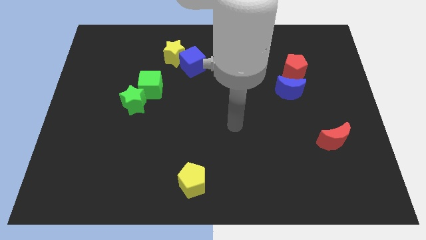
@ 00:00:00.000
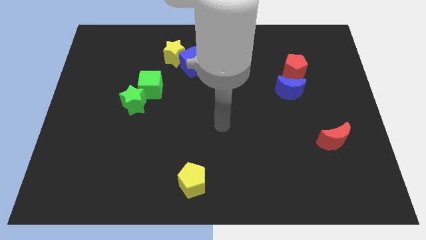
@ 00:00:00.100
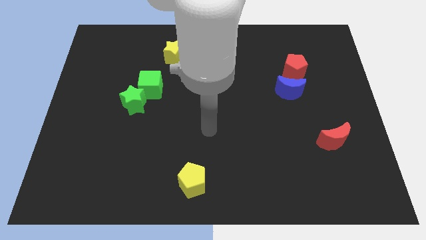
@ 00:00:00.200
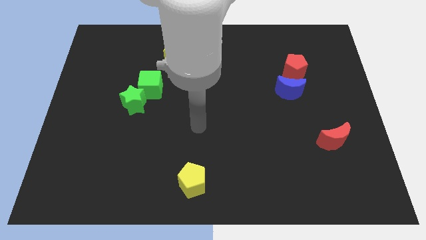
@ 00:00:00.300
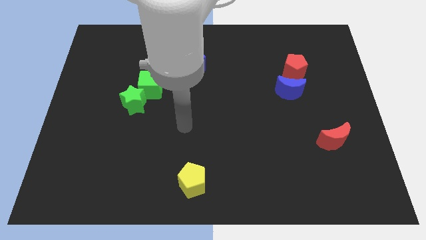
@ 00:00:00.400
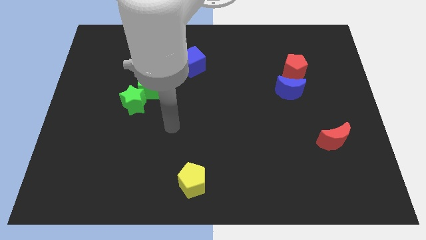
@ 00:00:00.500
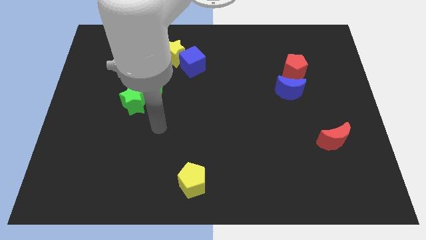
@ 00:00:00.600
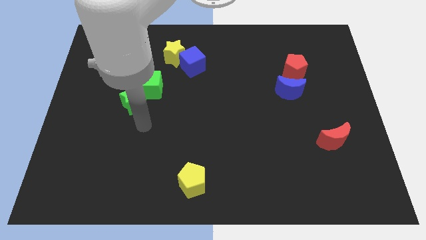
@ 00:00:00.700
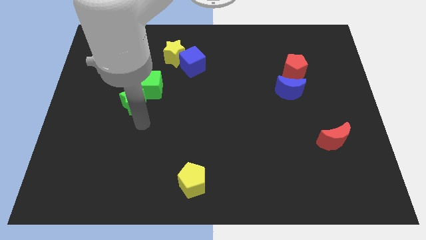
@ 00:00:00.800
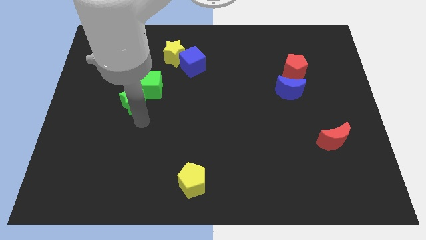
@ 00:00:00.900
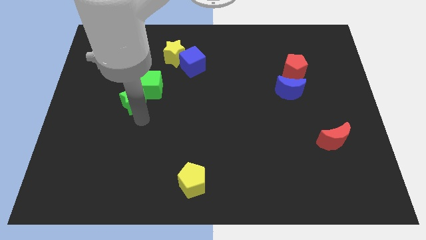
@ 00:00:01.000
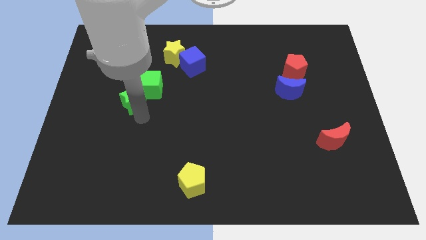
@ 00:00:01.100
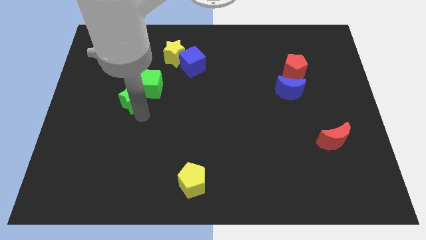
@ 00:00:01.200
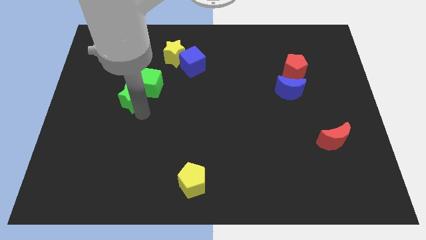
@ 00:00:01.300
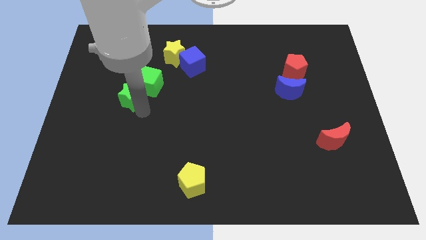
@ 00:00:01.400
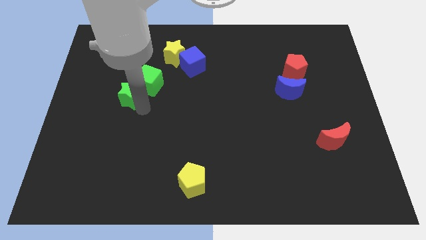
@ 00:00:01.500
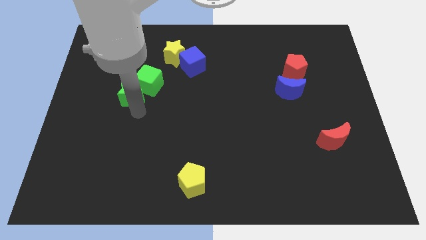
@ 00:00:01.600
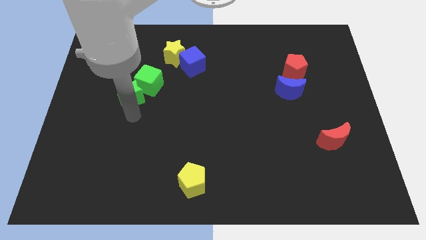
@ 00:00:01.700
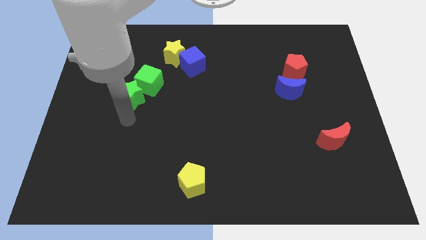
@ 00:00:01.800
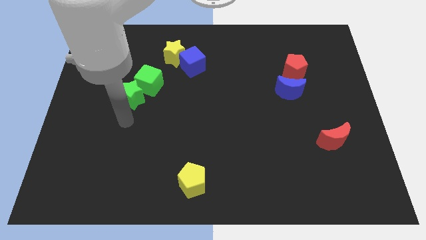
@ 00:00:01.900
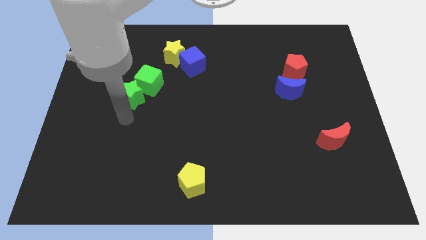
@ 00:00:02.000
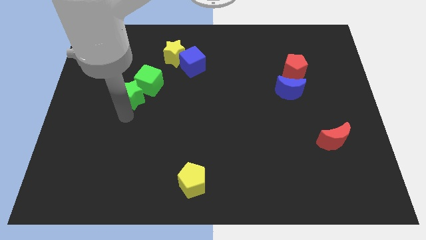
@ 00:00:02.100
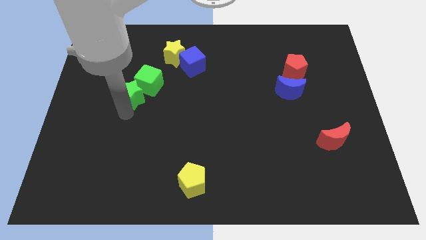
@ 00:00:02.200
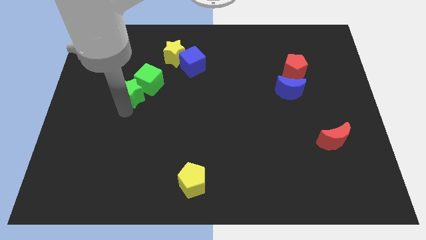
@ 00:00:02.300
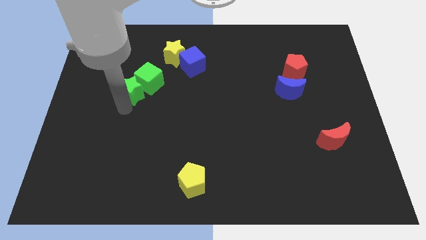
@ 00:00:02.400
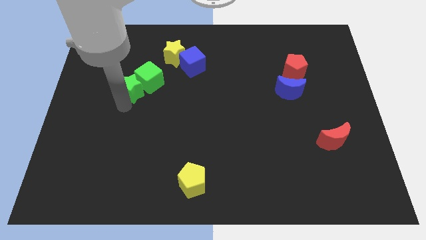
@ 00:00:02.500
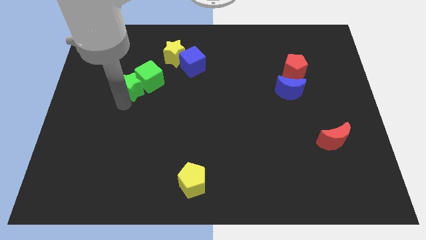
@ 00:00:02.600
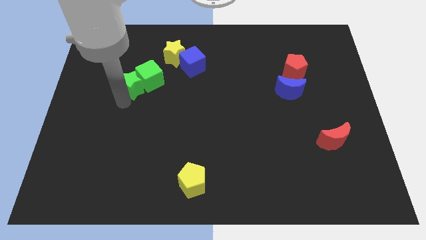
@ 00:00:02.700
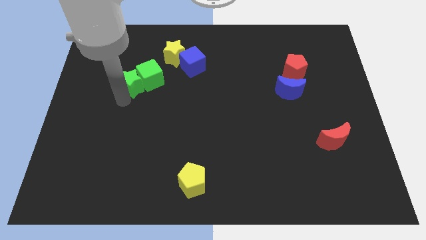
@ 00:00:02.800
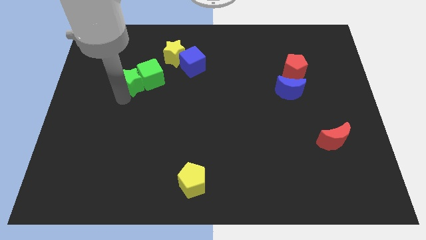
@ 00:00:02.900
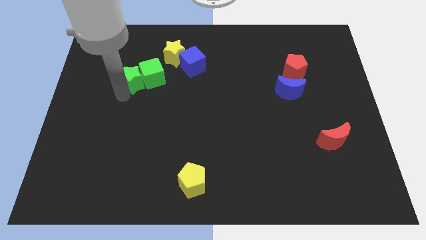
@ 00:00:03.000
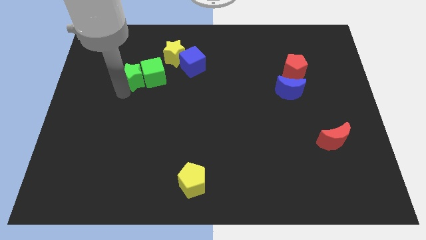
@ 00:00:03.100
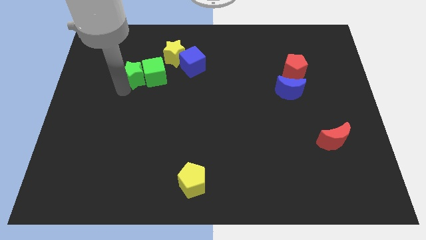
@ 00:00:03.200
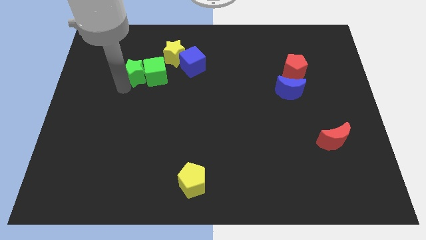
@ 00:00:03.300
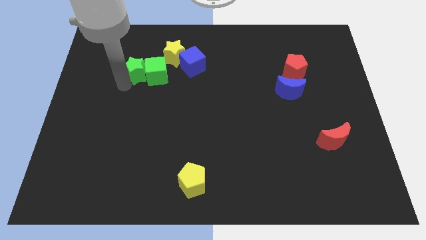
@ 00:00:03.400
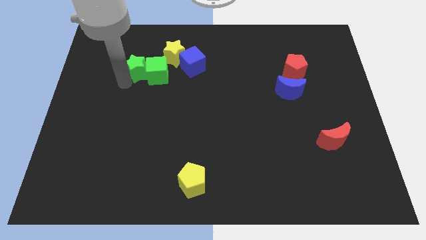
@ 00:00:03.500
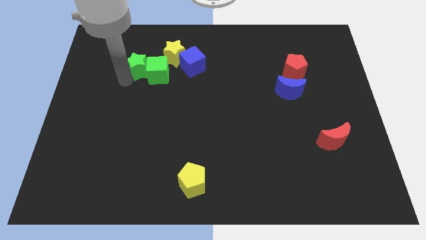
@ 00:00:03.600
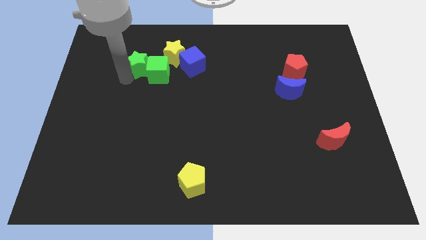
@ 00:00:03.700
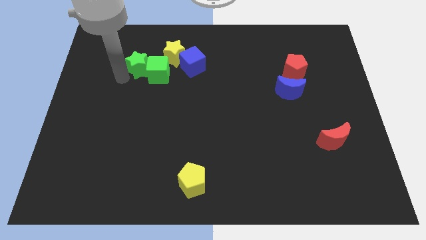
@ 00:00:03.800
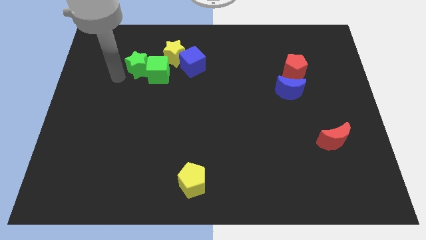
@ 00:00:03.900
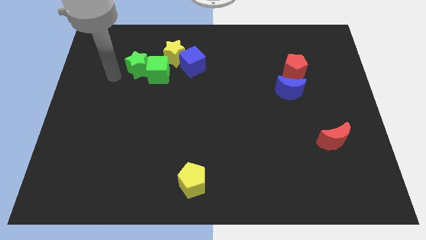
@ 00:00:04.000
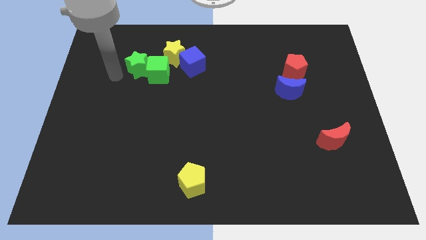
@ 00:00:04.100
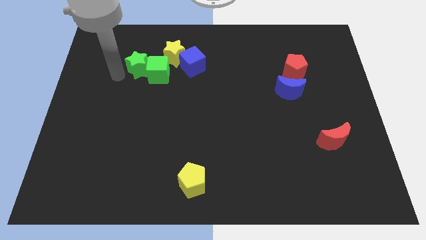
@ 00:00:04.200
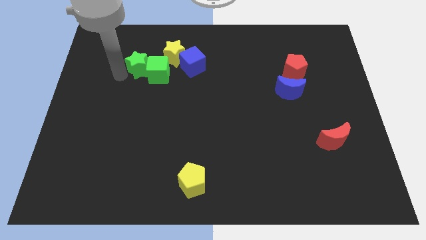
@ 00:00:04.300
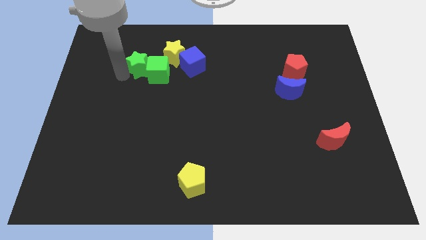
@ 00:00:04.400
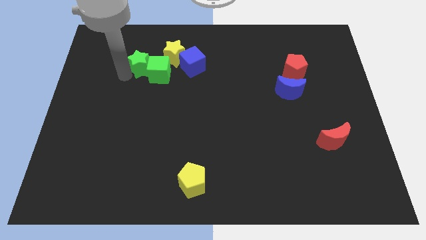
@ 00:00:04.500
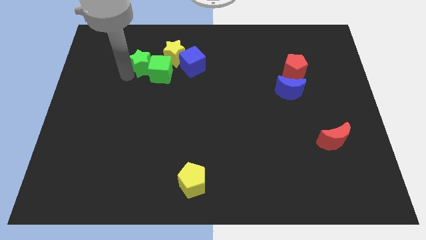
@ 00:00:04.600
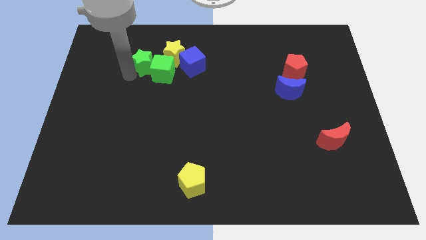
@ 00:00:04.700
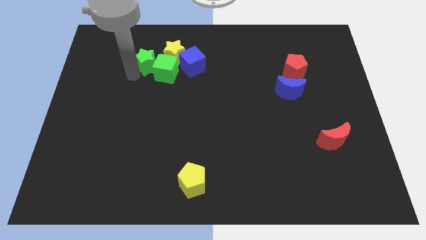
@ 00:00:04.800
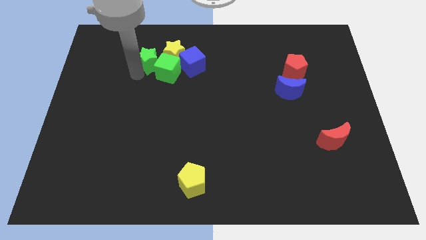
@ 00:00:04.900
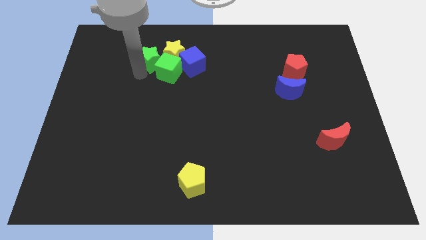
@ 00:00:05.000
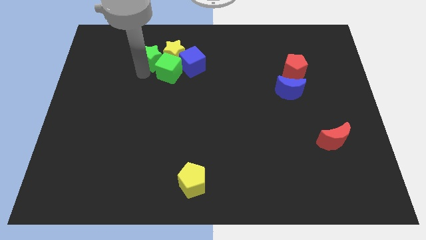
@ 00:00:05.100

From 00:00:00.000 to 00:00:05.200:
put the green star next to the yellow star

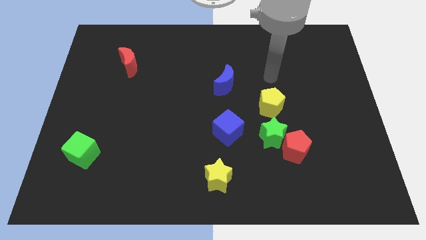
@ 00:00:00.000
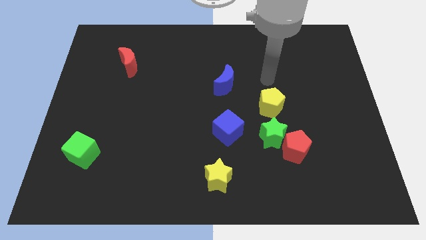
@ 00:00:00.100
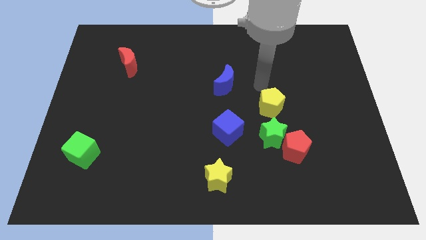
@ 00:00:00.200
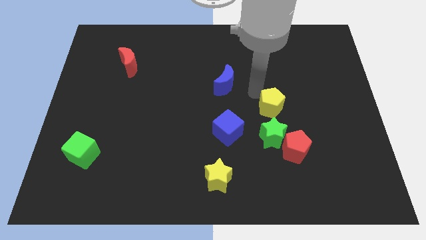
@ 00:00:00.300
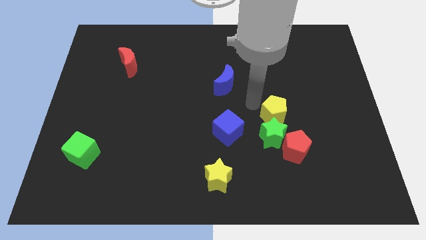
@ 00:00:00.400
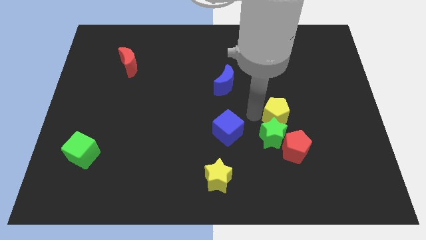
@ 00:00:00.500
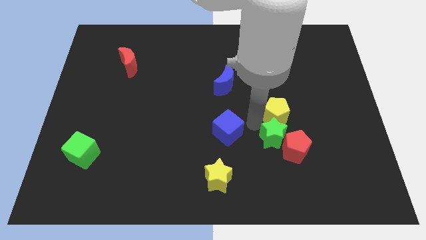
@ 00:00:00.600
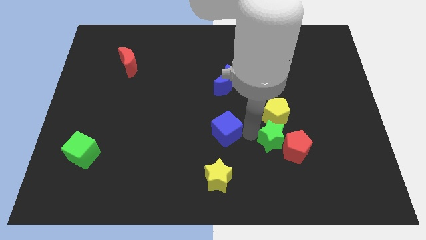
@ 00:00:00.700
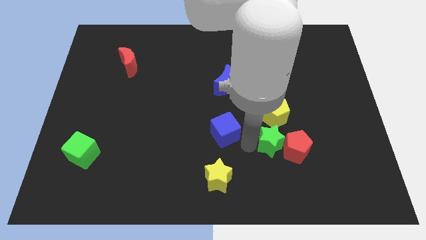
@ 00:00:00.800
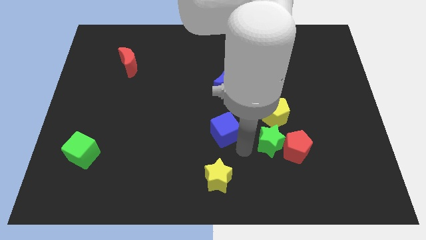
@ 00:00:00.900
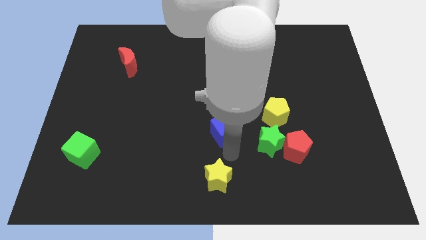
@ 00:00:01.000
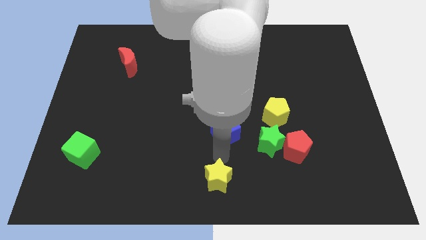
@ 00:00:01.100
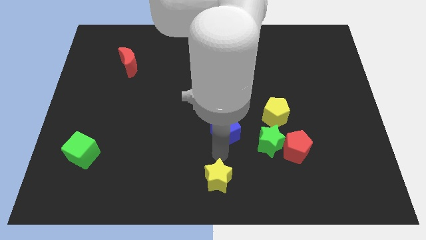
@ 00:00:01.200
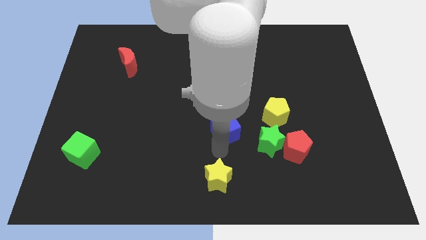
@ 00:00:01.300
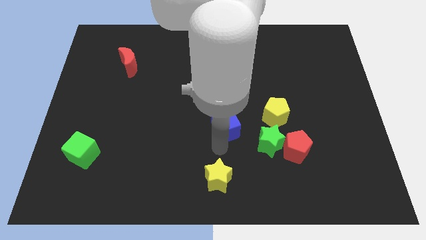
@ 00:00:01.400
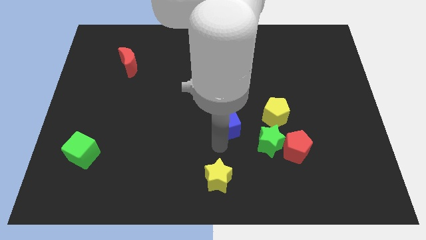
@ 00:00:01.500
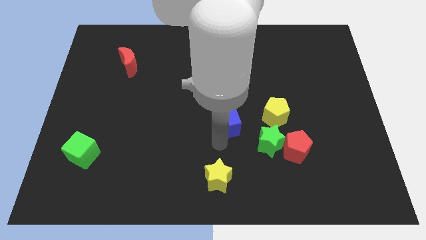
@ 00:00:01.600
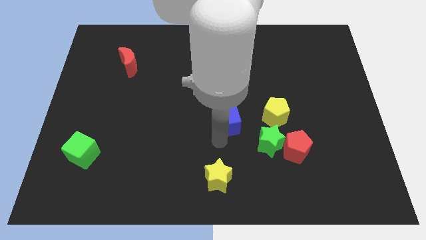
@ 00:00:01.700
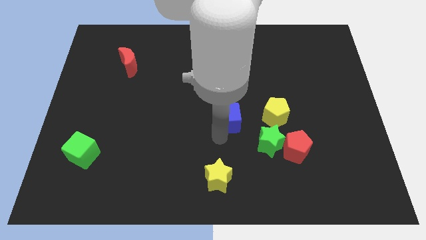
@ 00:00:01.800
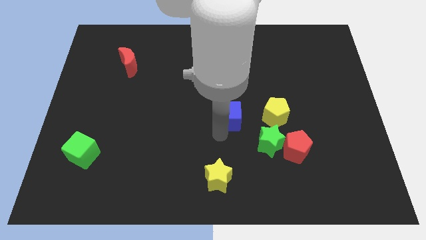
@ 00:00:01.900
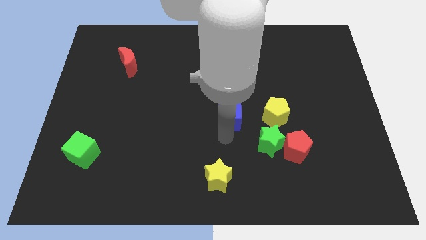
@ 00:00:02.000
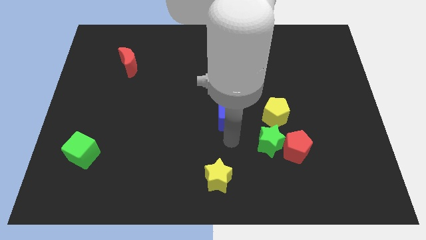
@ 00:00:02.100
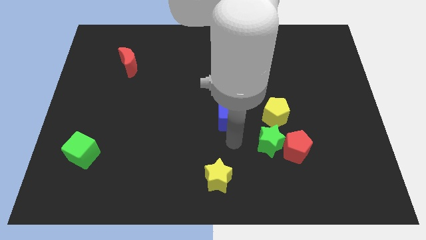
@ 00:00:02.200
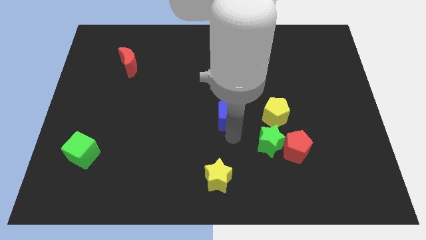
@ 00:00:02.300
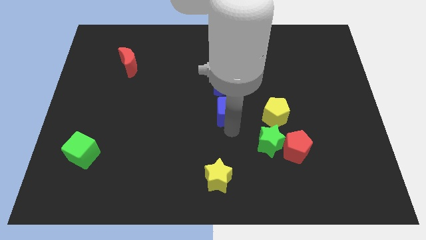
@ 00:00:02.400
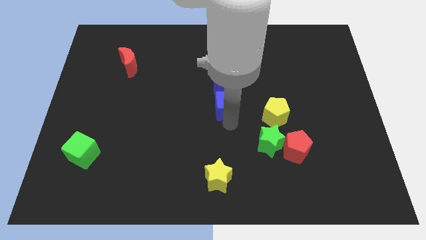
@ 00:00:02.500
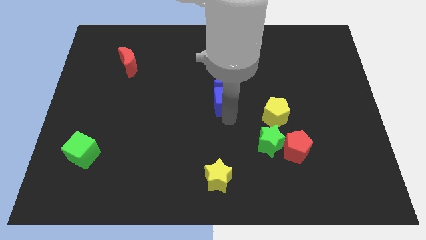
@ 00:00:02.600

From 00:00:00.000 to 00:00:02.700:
move the blue cube next to the blue moon
